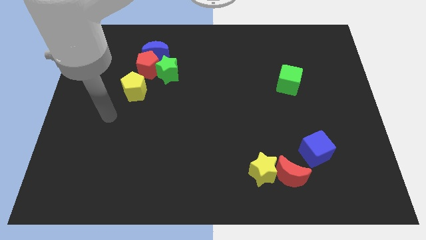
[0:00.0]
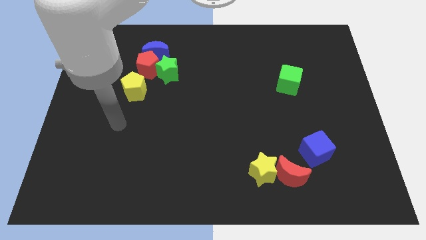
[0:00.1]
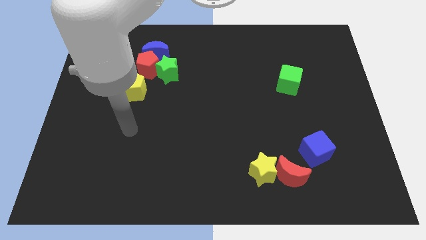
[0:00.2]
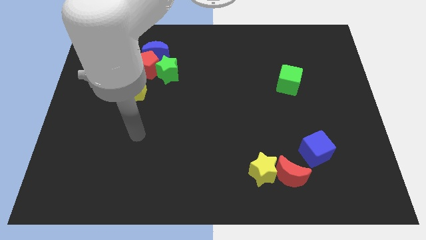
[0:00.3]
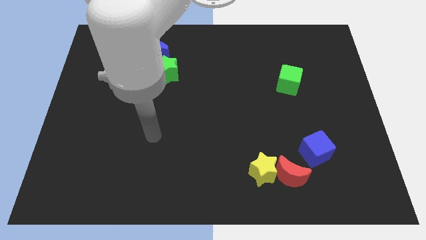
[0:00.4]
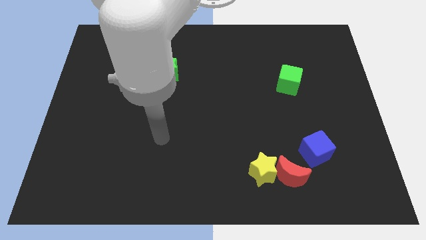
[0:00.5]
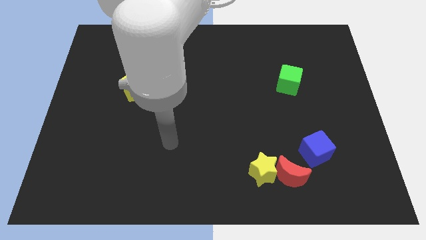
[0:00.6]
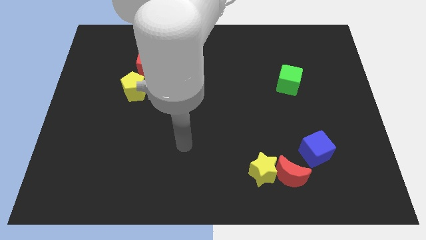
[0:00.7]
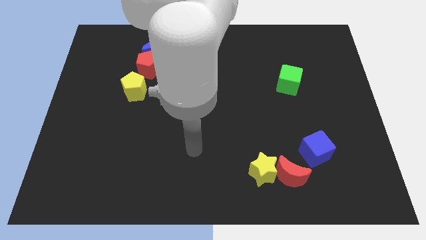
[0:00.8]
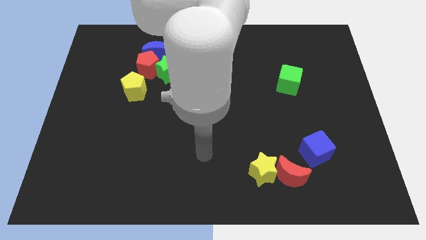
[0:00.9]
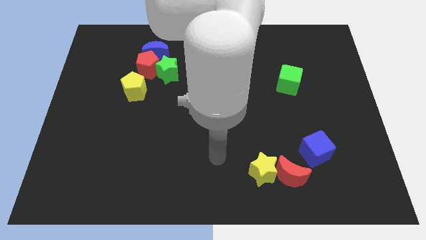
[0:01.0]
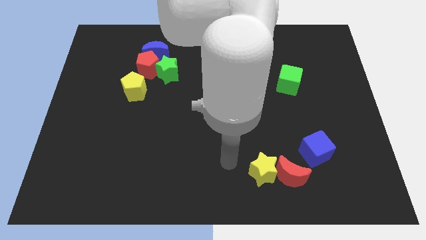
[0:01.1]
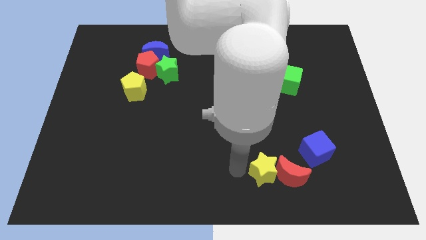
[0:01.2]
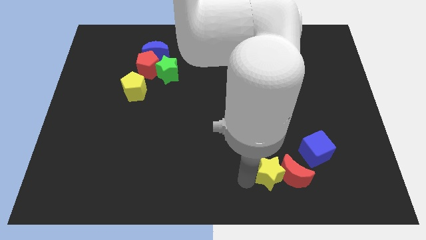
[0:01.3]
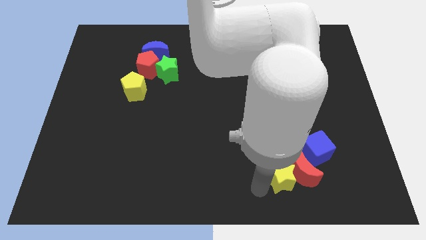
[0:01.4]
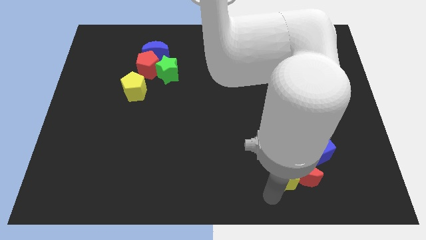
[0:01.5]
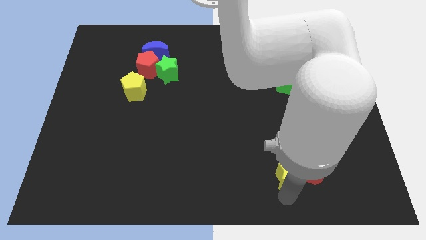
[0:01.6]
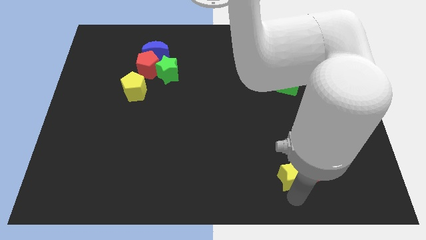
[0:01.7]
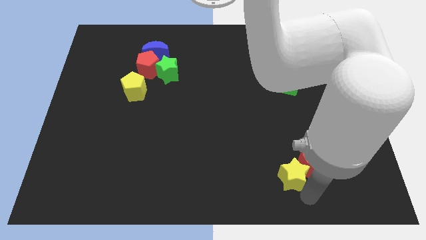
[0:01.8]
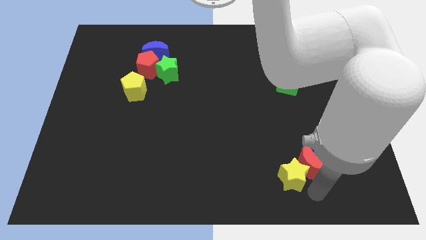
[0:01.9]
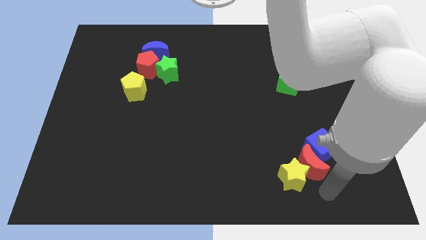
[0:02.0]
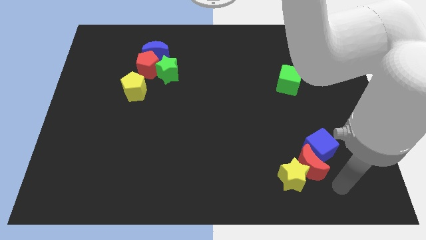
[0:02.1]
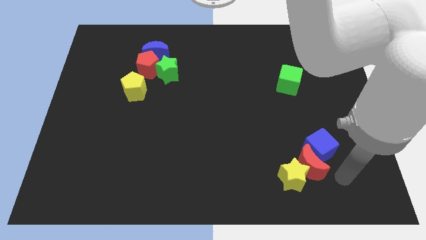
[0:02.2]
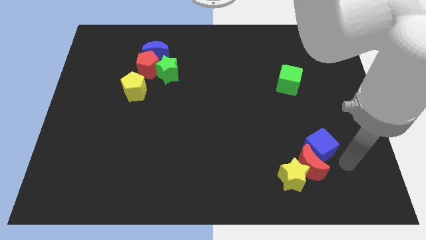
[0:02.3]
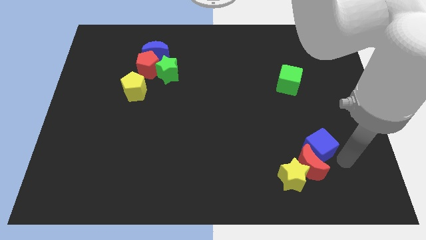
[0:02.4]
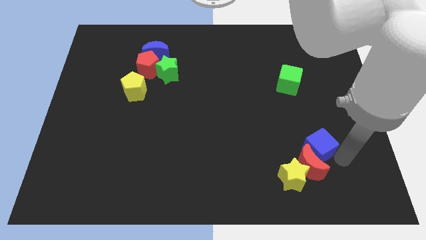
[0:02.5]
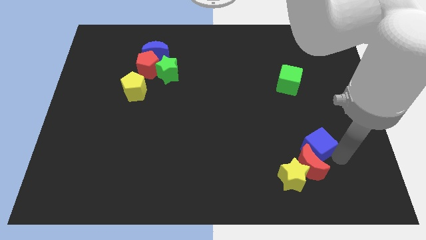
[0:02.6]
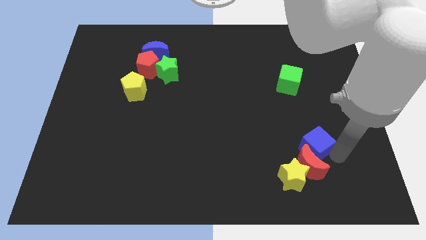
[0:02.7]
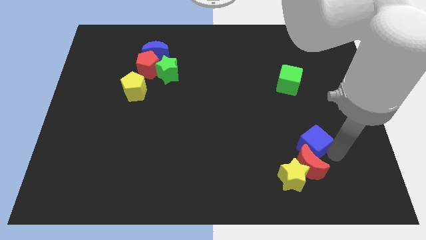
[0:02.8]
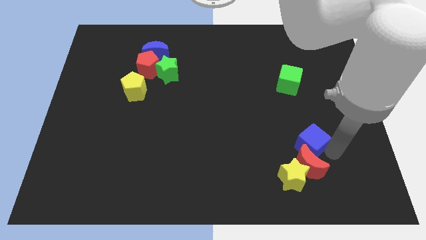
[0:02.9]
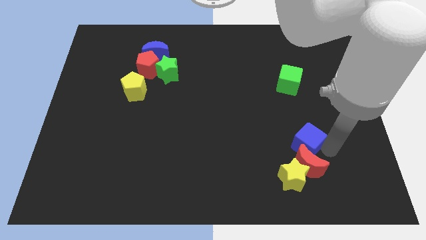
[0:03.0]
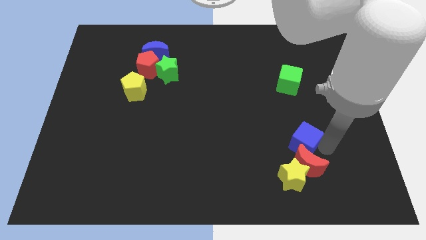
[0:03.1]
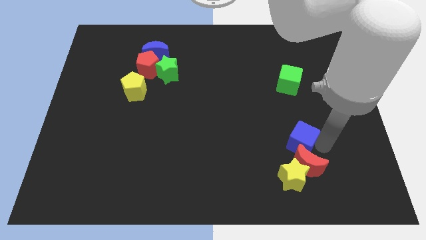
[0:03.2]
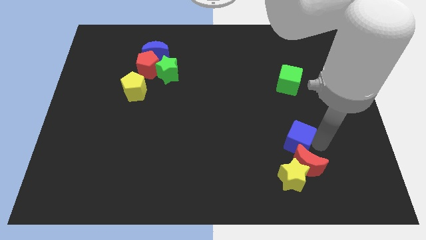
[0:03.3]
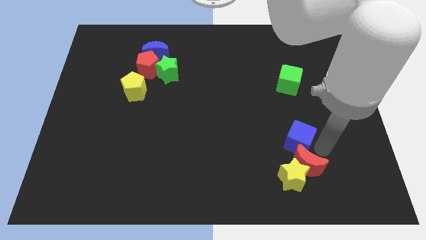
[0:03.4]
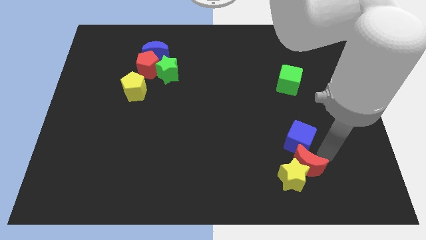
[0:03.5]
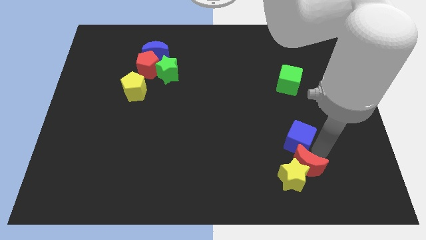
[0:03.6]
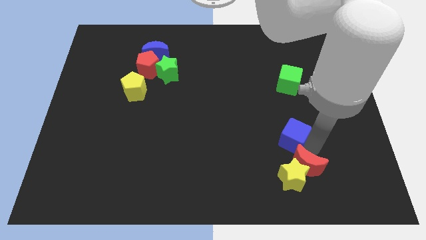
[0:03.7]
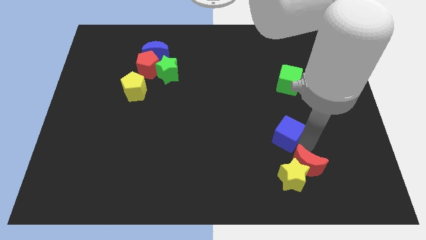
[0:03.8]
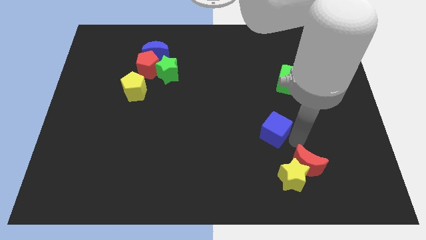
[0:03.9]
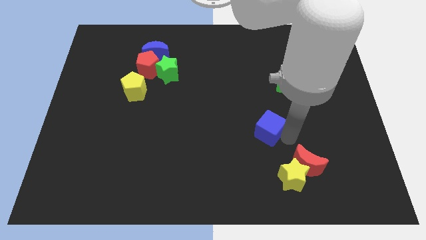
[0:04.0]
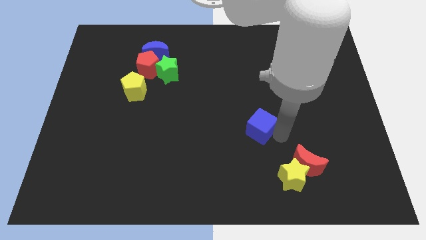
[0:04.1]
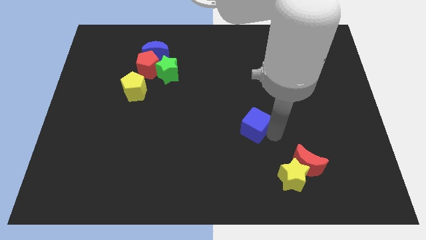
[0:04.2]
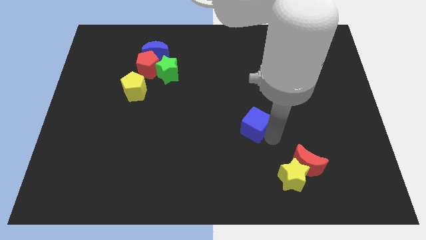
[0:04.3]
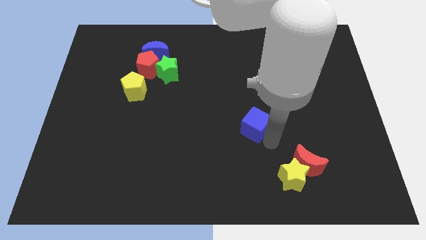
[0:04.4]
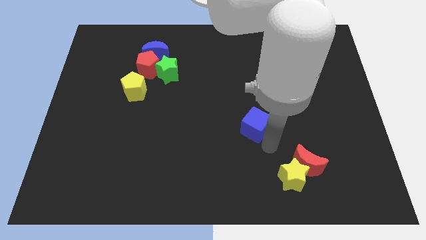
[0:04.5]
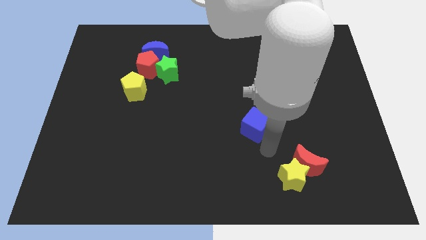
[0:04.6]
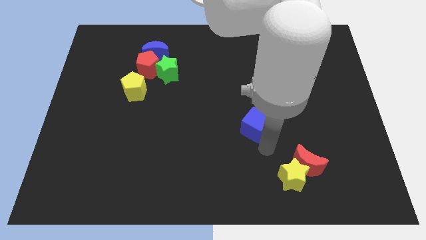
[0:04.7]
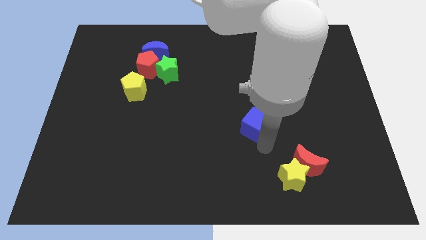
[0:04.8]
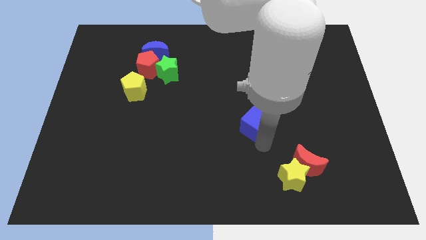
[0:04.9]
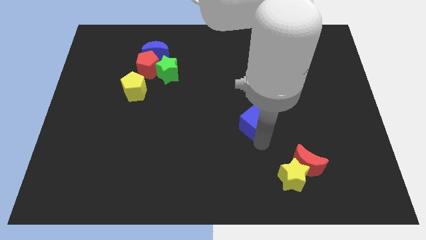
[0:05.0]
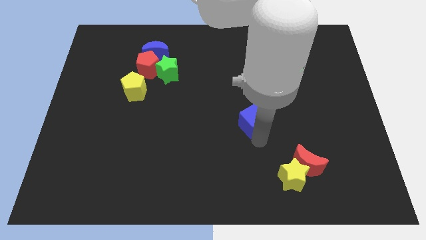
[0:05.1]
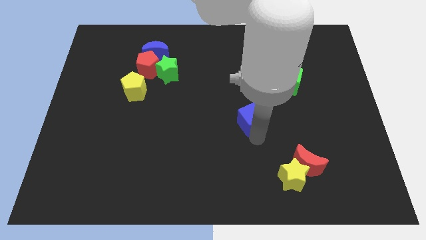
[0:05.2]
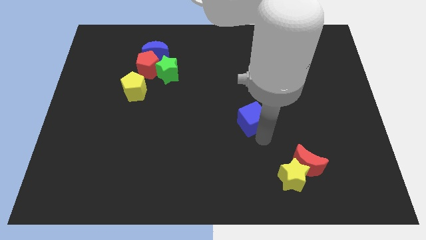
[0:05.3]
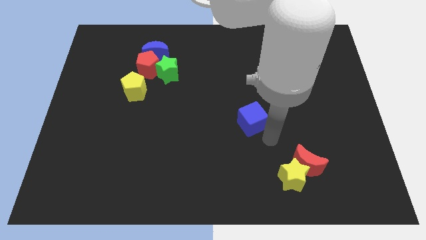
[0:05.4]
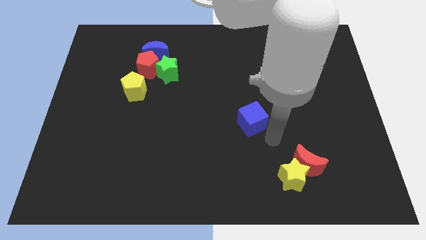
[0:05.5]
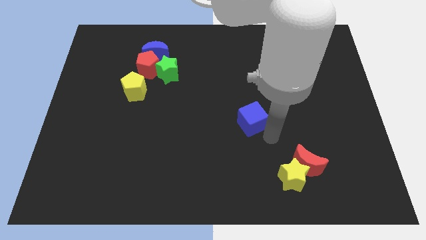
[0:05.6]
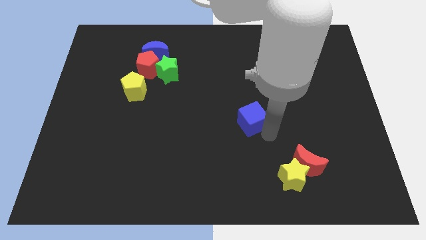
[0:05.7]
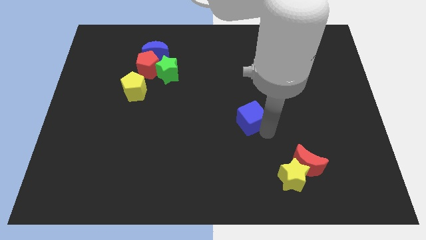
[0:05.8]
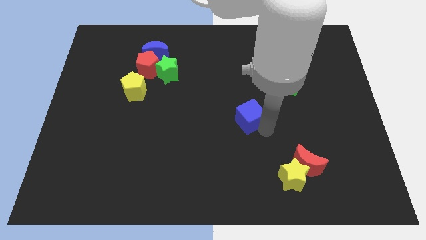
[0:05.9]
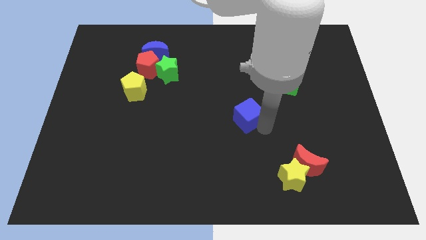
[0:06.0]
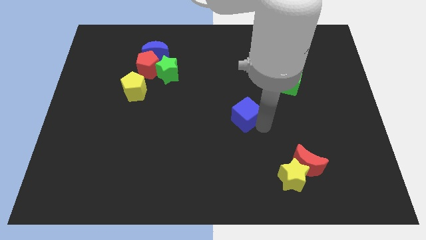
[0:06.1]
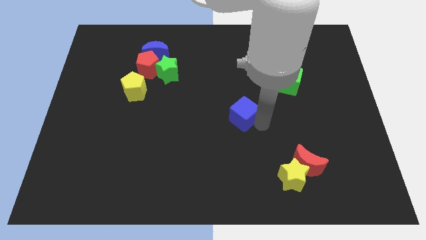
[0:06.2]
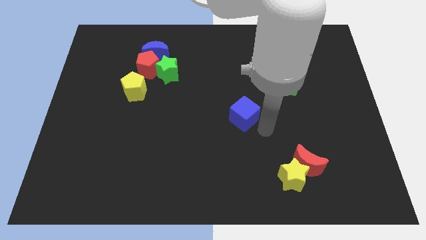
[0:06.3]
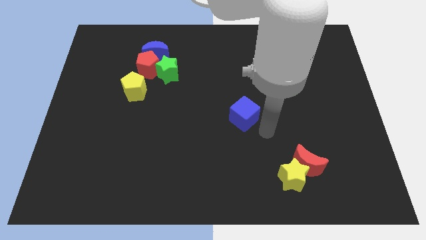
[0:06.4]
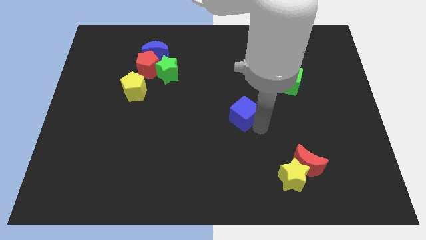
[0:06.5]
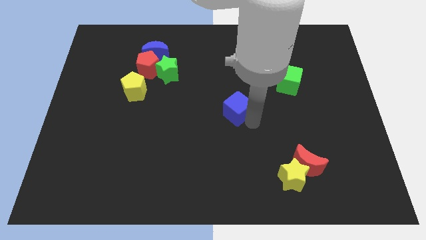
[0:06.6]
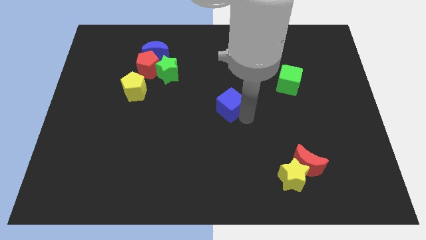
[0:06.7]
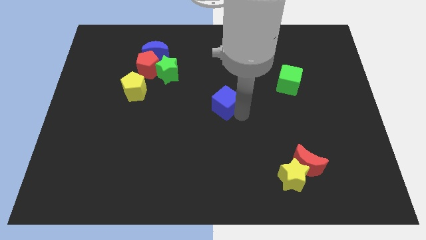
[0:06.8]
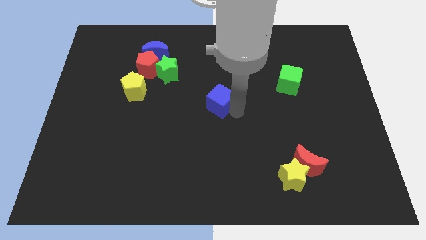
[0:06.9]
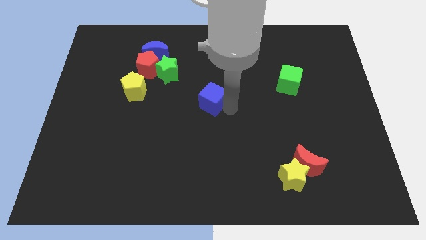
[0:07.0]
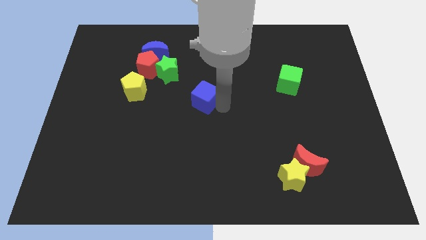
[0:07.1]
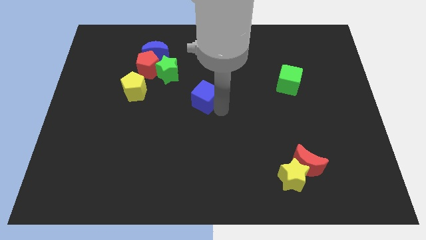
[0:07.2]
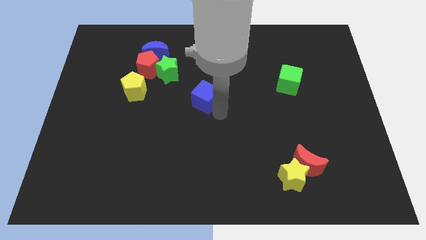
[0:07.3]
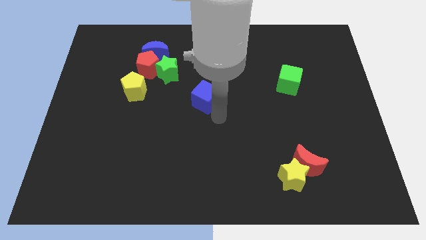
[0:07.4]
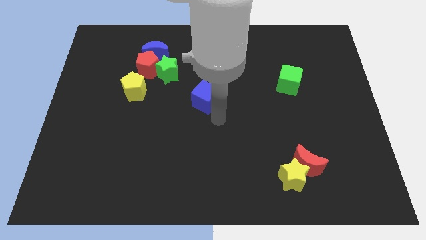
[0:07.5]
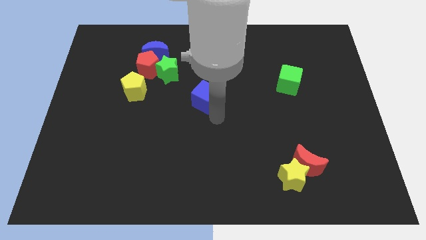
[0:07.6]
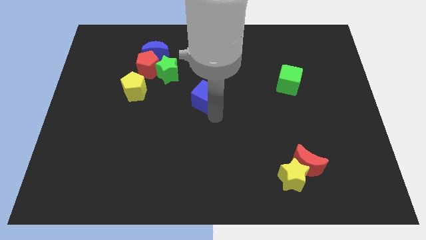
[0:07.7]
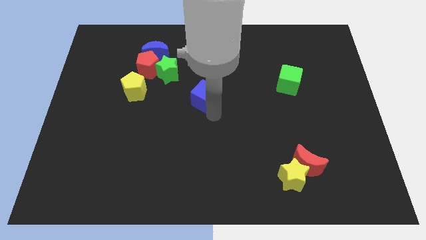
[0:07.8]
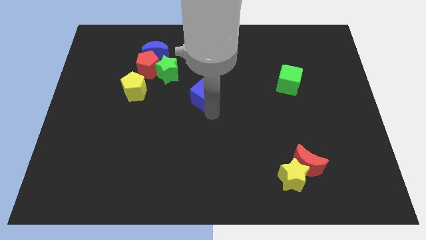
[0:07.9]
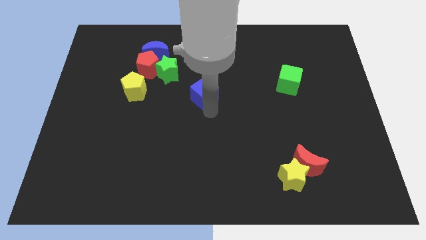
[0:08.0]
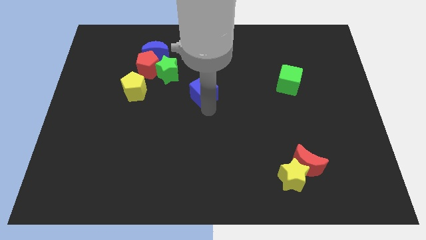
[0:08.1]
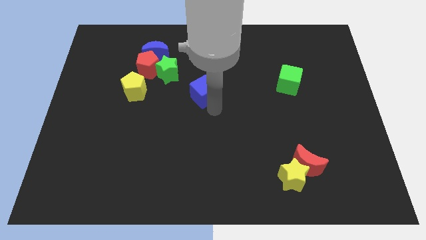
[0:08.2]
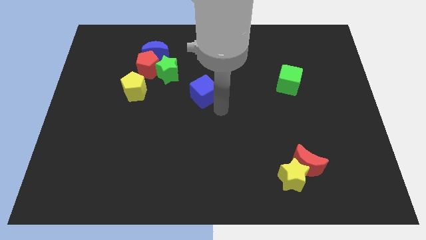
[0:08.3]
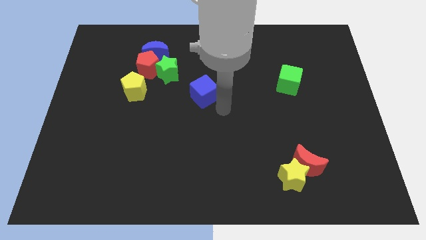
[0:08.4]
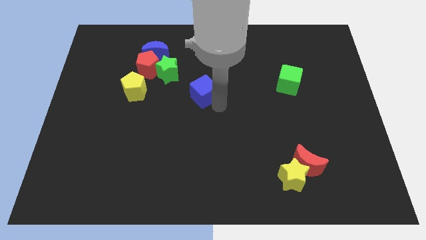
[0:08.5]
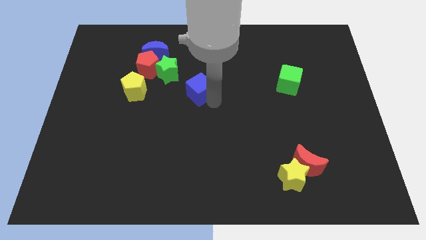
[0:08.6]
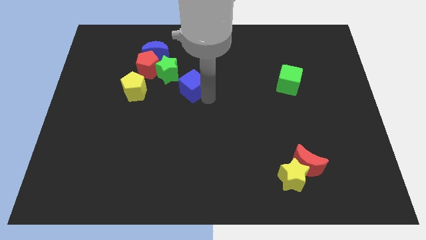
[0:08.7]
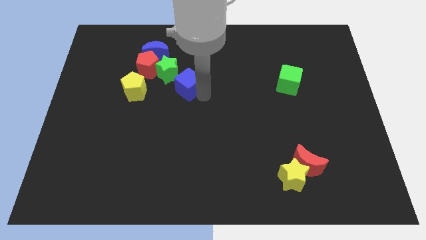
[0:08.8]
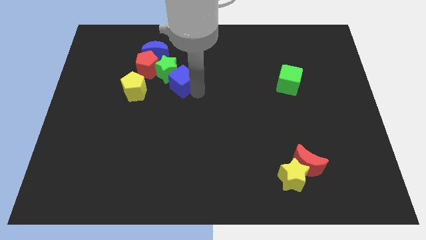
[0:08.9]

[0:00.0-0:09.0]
push the blue cube to the green star
